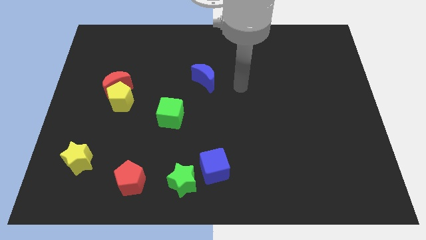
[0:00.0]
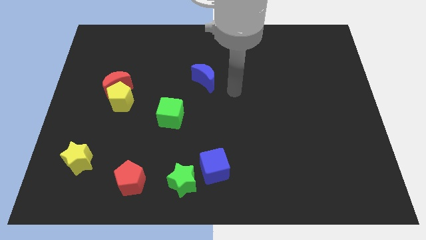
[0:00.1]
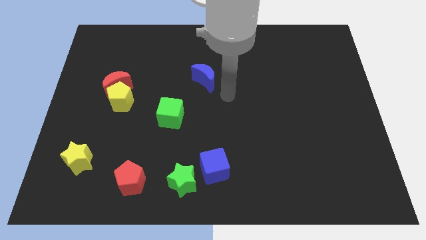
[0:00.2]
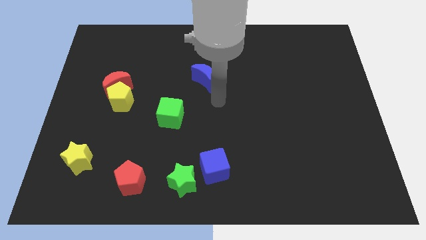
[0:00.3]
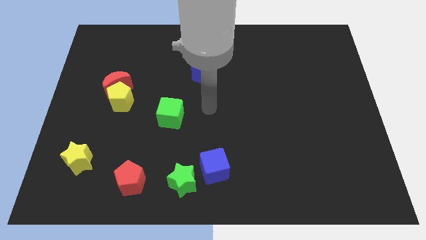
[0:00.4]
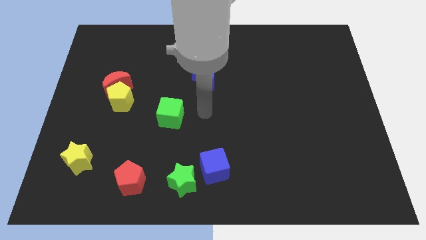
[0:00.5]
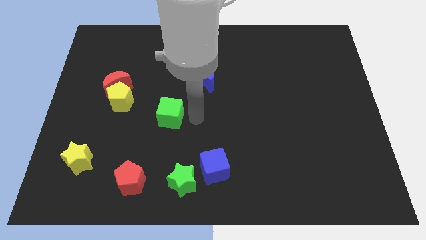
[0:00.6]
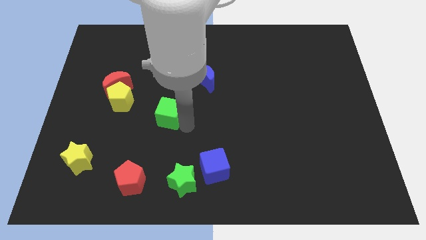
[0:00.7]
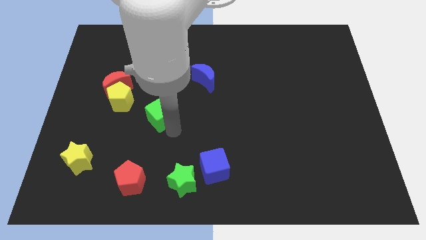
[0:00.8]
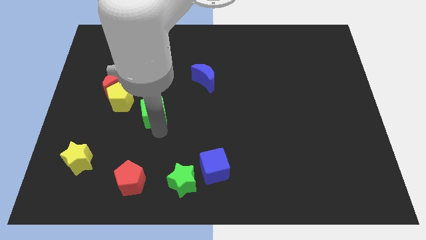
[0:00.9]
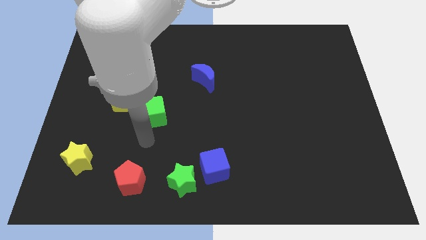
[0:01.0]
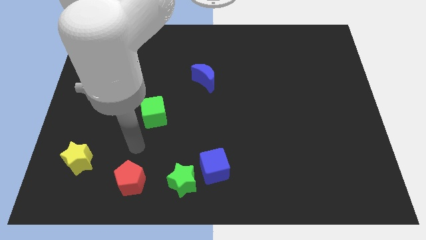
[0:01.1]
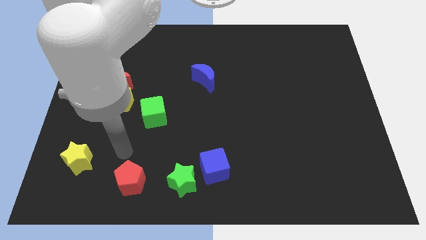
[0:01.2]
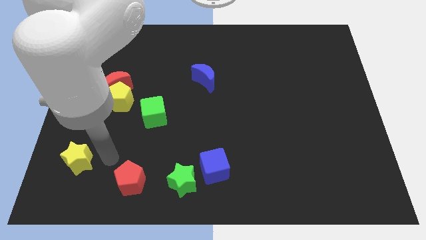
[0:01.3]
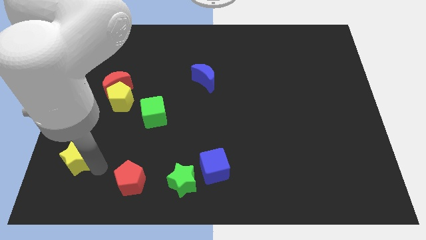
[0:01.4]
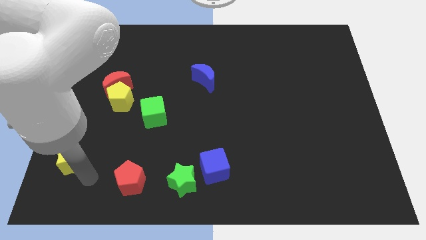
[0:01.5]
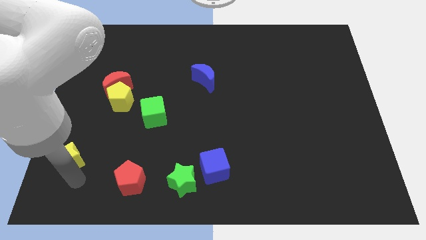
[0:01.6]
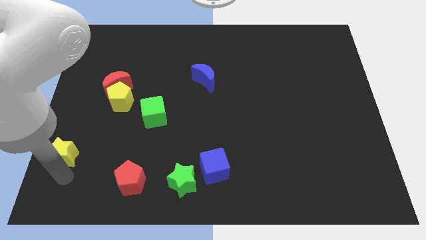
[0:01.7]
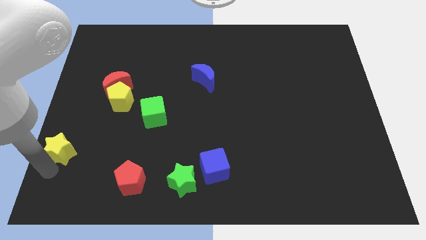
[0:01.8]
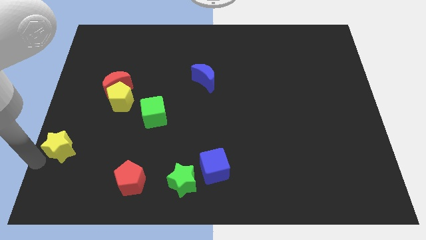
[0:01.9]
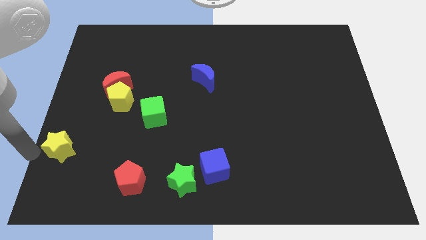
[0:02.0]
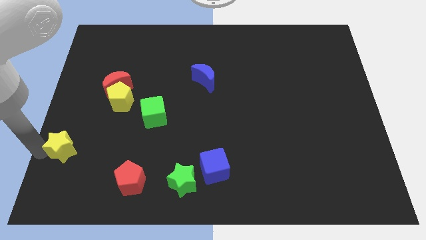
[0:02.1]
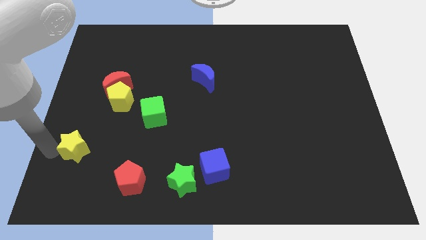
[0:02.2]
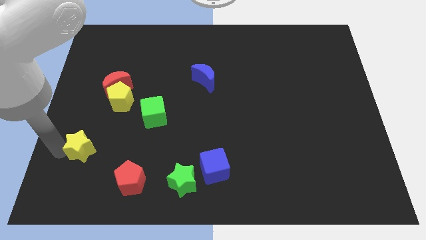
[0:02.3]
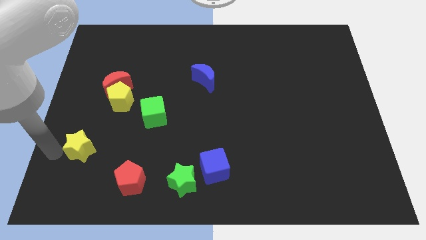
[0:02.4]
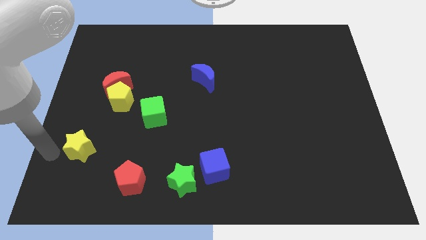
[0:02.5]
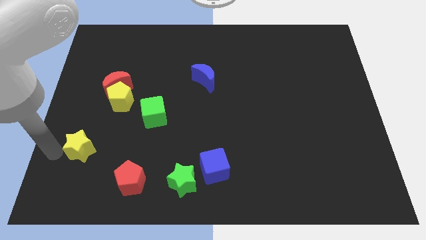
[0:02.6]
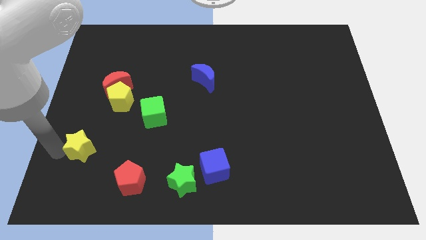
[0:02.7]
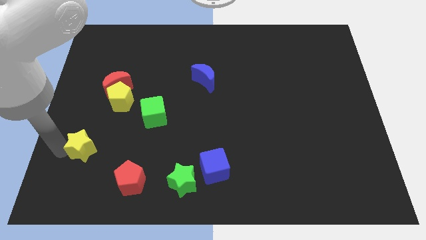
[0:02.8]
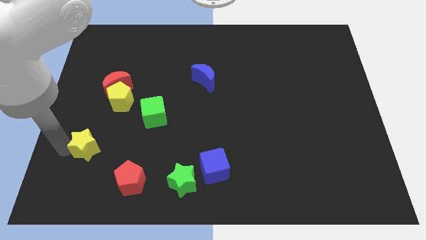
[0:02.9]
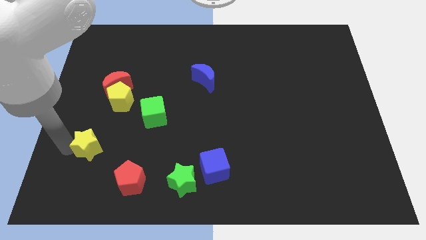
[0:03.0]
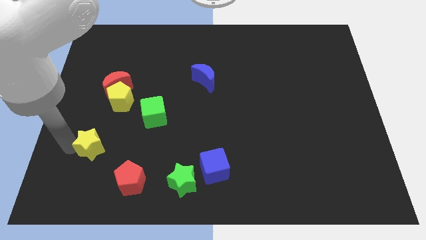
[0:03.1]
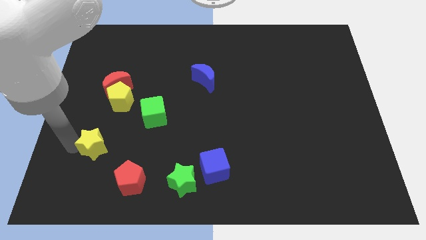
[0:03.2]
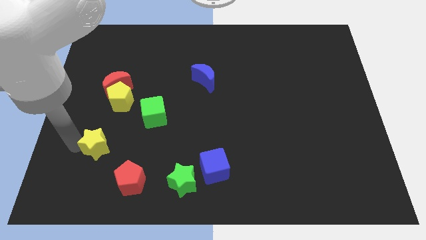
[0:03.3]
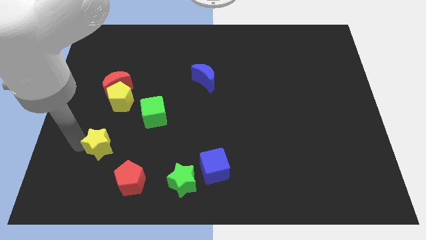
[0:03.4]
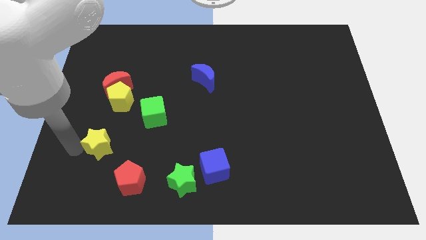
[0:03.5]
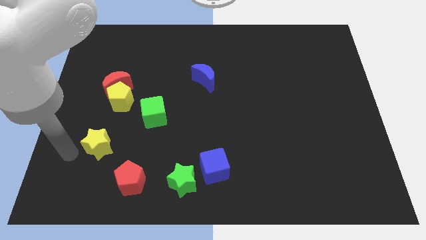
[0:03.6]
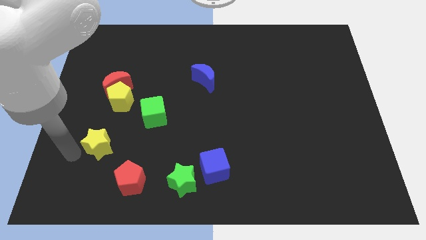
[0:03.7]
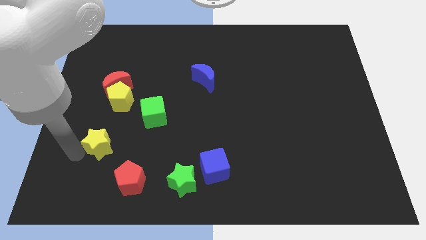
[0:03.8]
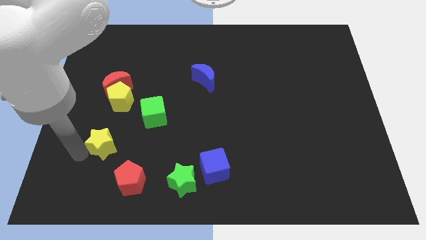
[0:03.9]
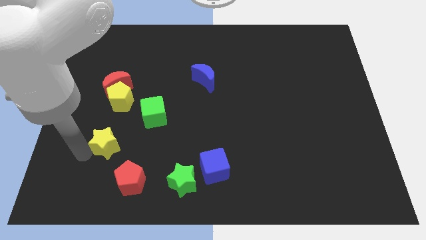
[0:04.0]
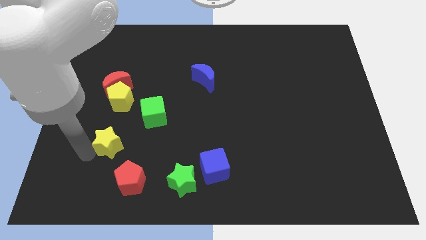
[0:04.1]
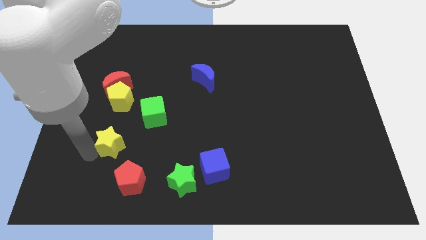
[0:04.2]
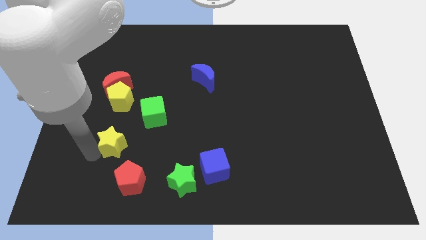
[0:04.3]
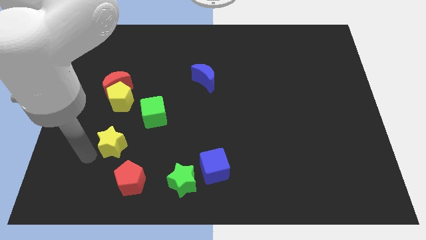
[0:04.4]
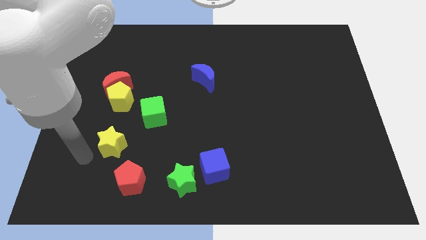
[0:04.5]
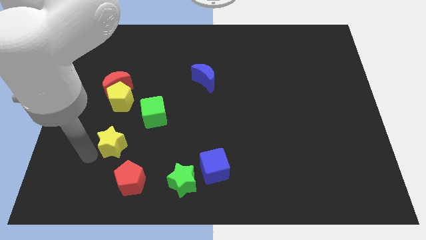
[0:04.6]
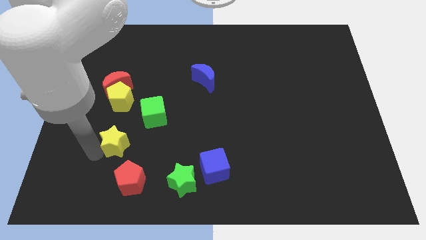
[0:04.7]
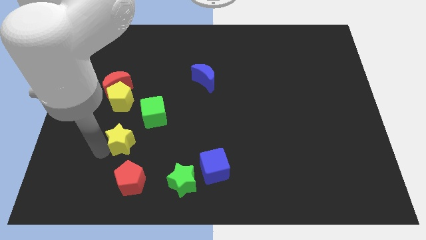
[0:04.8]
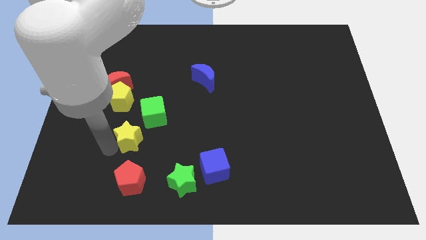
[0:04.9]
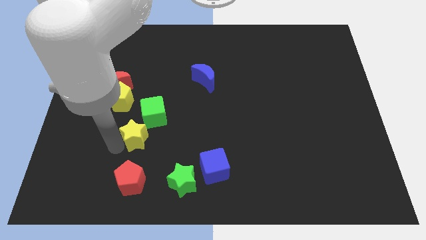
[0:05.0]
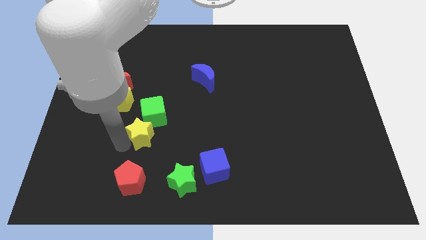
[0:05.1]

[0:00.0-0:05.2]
move the yellow star to the green cube

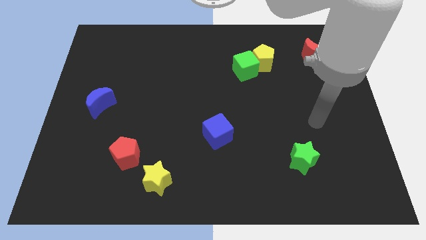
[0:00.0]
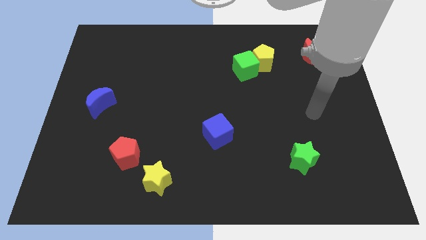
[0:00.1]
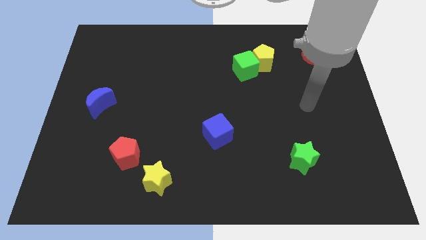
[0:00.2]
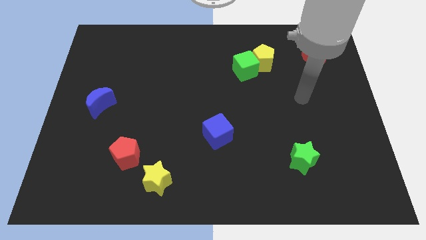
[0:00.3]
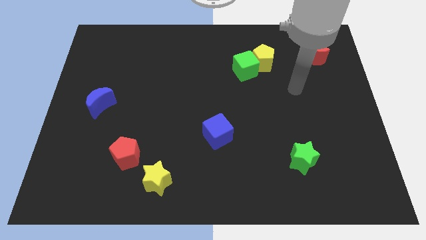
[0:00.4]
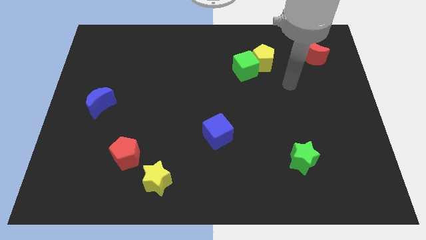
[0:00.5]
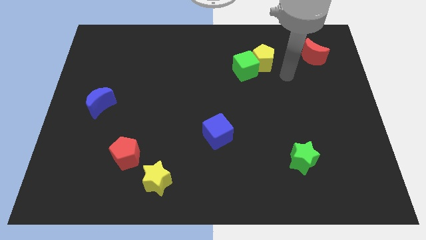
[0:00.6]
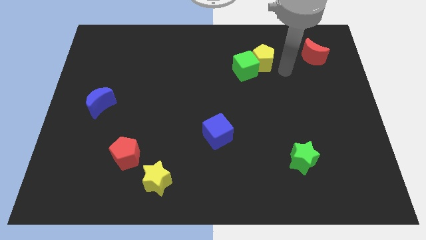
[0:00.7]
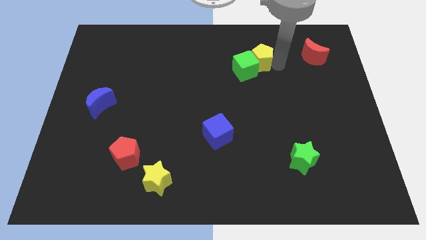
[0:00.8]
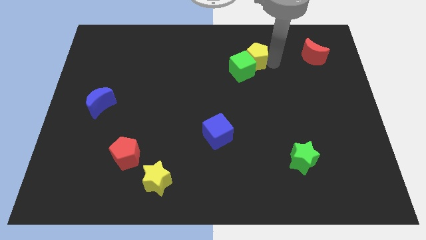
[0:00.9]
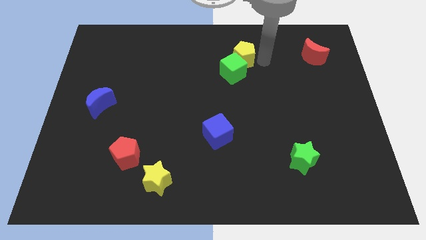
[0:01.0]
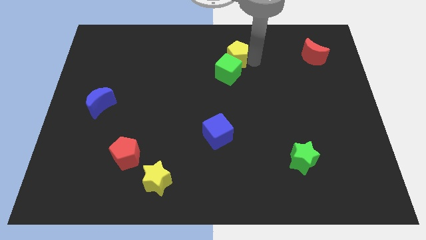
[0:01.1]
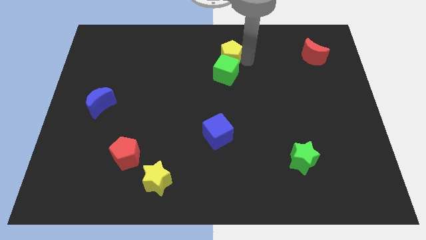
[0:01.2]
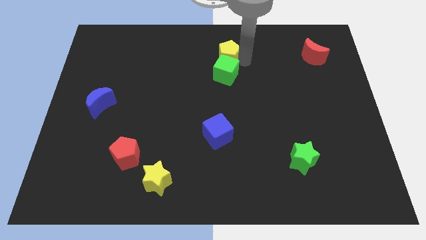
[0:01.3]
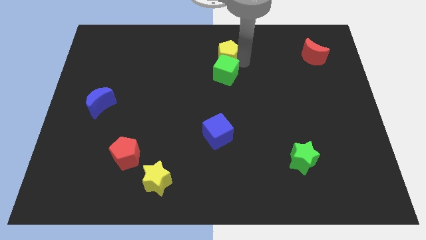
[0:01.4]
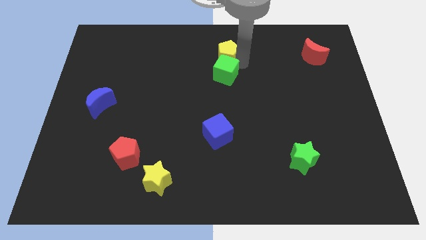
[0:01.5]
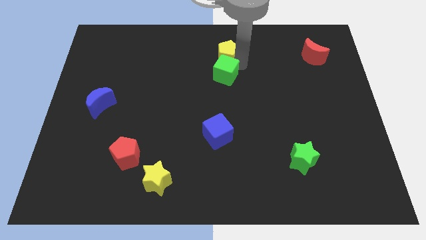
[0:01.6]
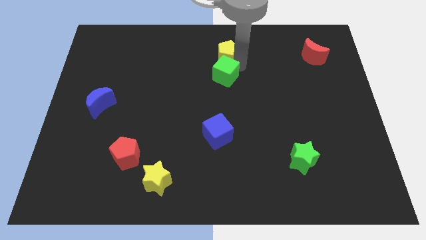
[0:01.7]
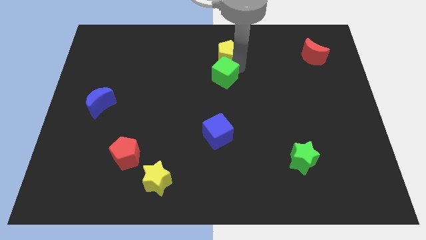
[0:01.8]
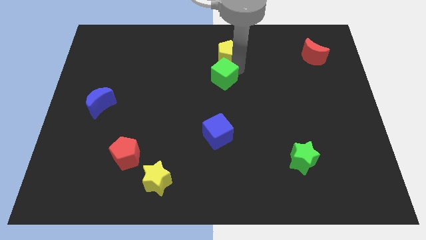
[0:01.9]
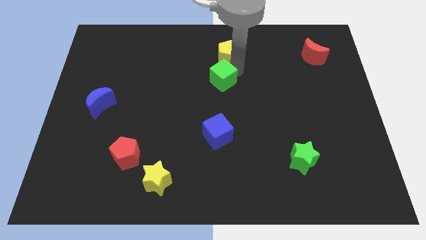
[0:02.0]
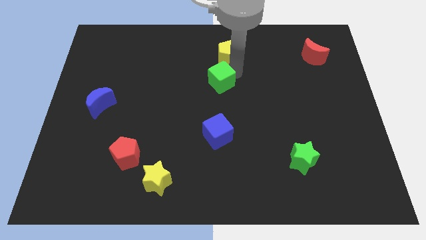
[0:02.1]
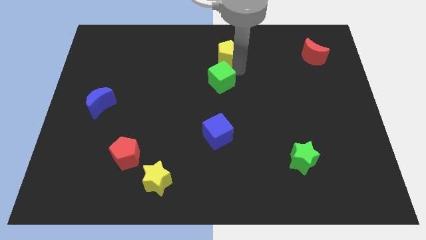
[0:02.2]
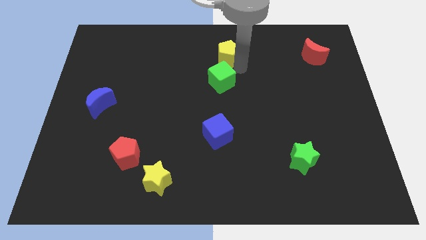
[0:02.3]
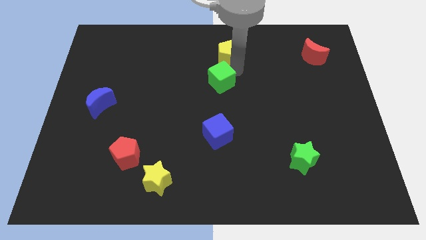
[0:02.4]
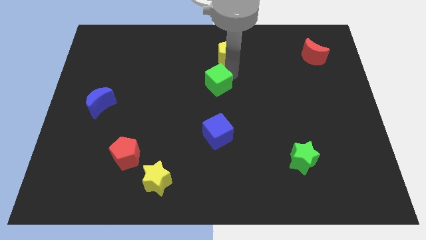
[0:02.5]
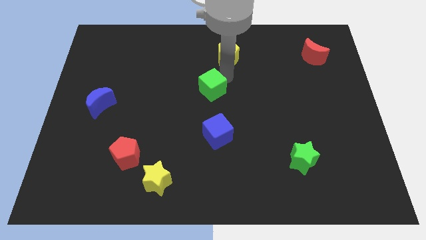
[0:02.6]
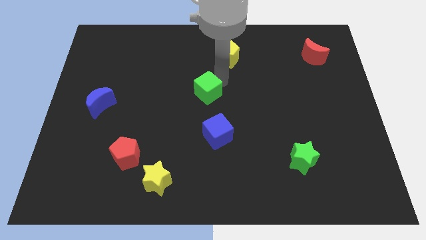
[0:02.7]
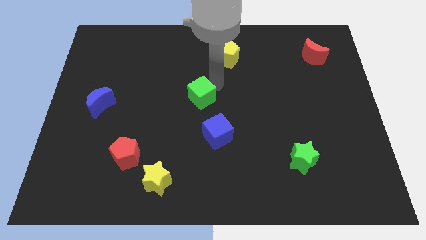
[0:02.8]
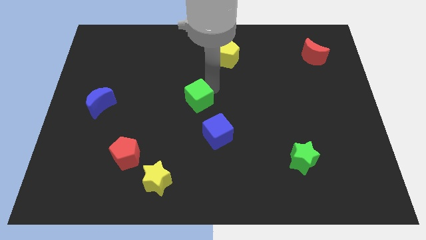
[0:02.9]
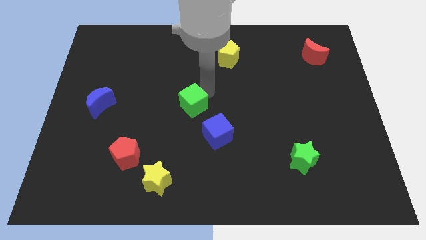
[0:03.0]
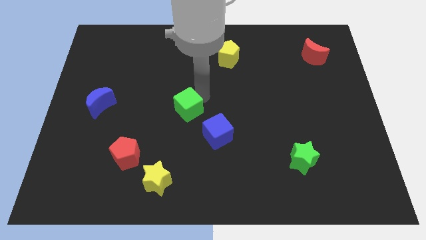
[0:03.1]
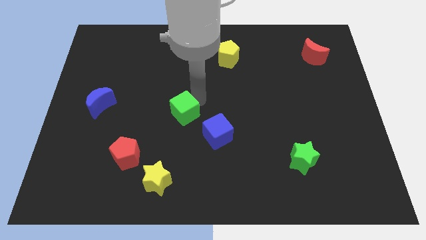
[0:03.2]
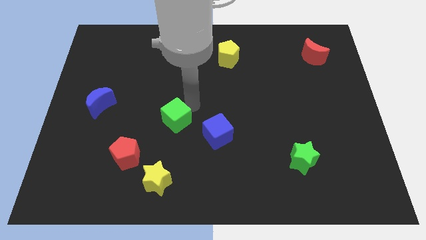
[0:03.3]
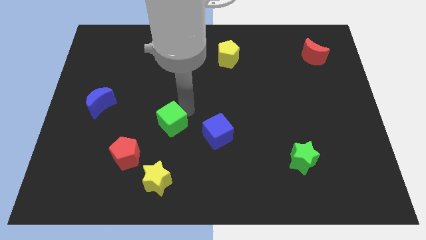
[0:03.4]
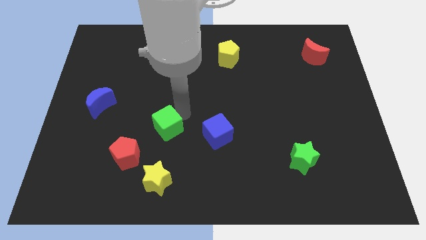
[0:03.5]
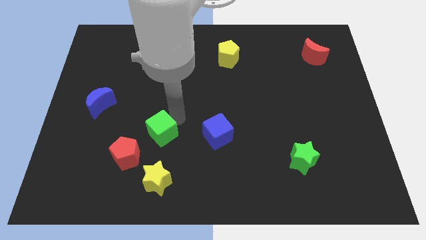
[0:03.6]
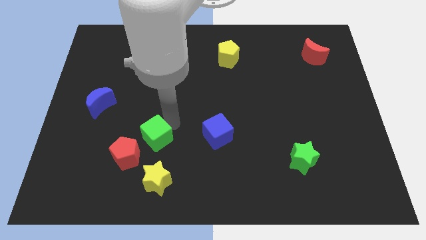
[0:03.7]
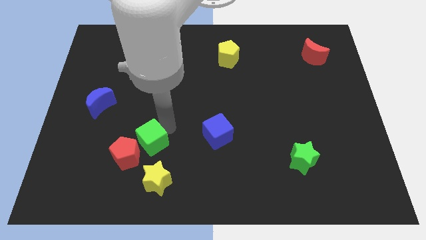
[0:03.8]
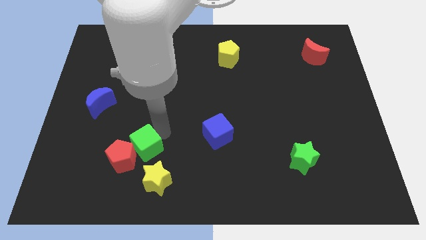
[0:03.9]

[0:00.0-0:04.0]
push the green cube close to the red pentagon
